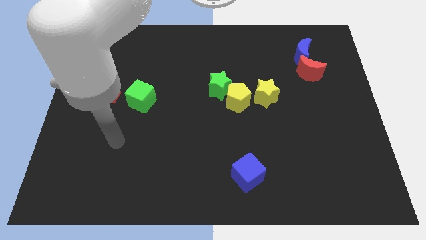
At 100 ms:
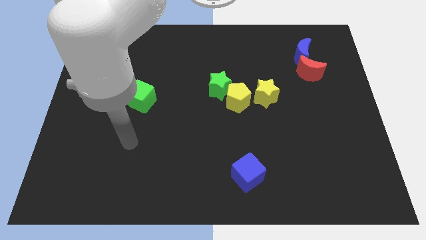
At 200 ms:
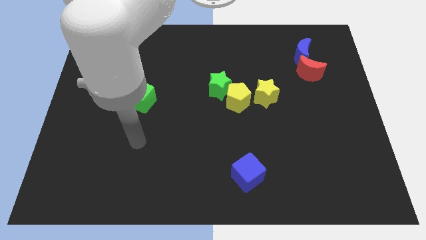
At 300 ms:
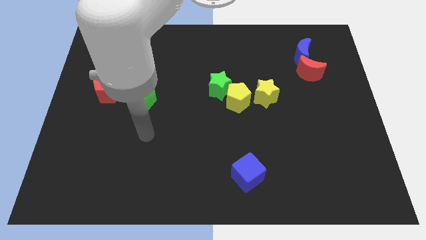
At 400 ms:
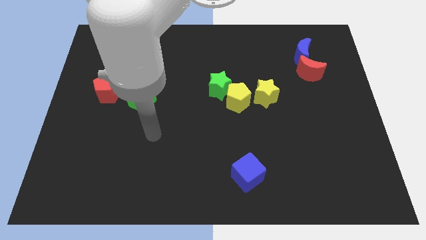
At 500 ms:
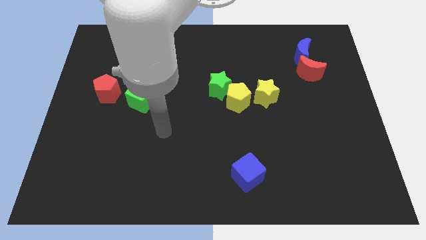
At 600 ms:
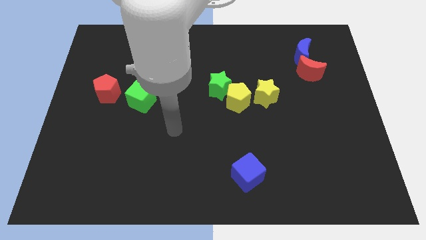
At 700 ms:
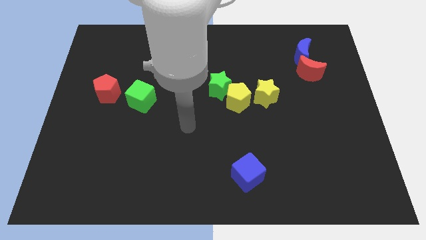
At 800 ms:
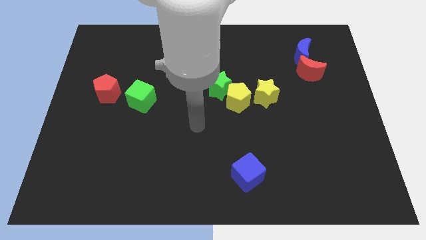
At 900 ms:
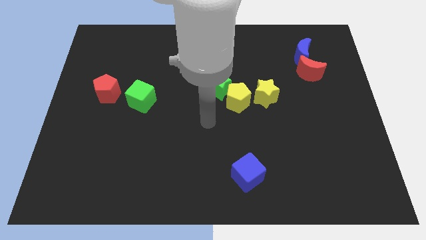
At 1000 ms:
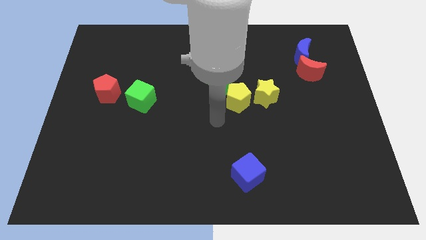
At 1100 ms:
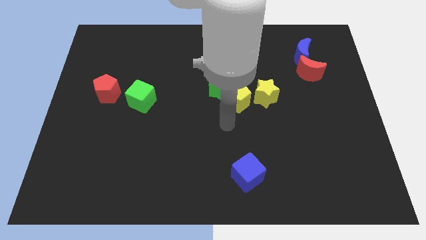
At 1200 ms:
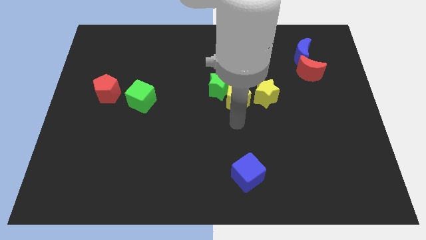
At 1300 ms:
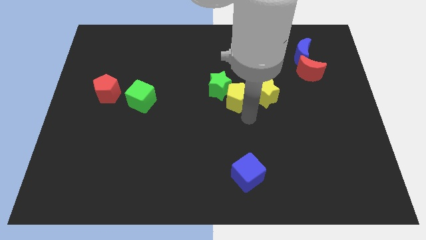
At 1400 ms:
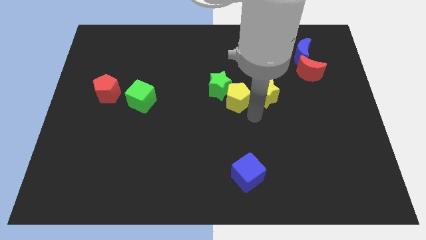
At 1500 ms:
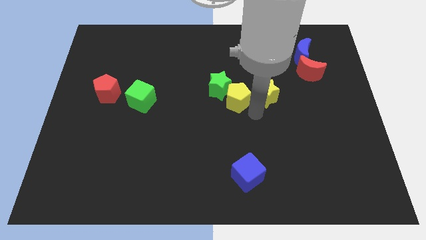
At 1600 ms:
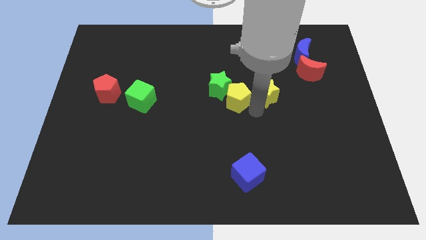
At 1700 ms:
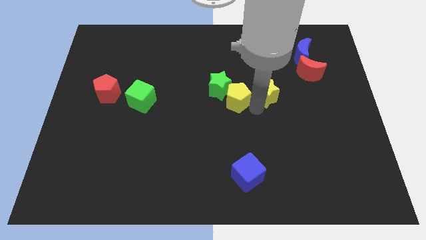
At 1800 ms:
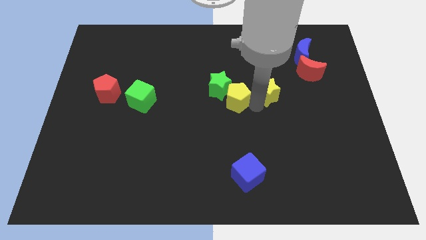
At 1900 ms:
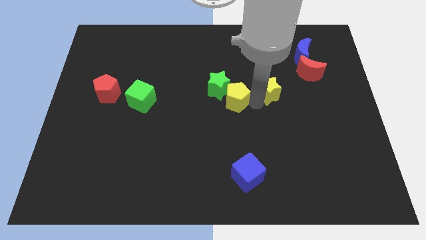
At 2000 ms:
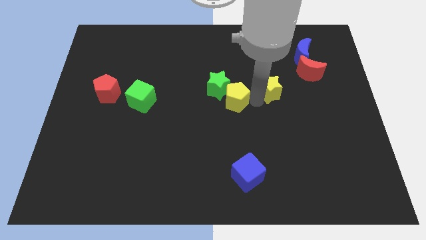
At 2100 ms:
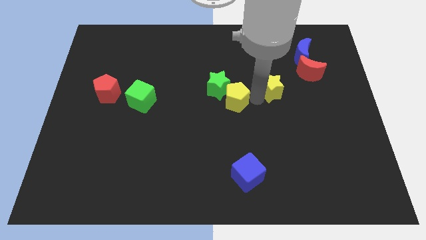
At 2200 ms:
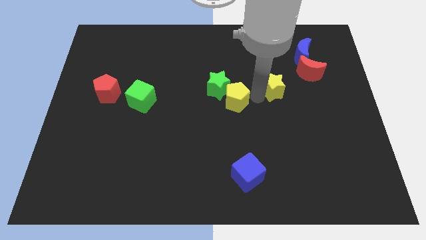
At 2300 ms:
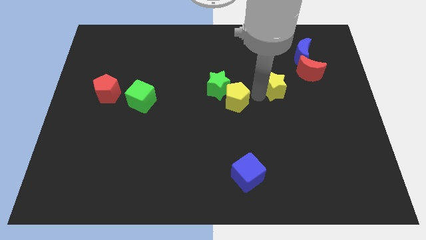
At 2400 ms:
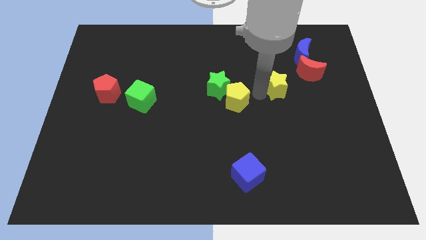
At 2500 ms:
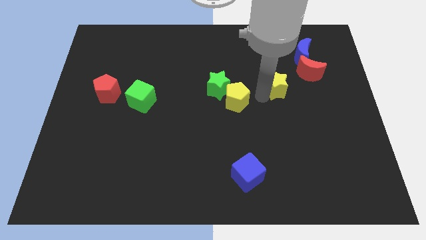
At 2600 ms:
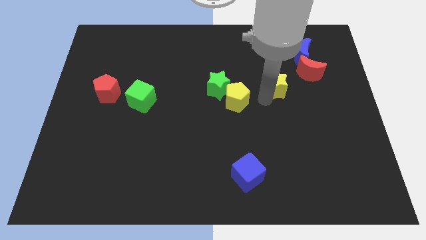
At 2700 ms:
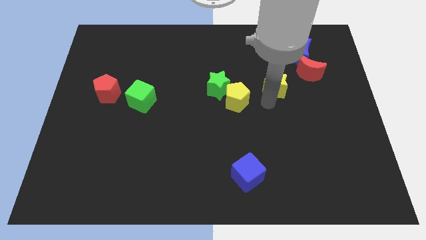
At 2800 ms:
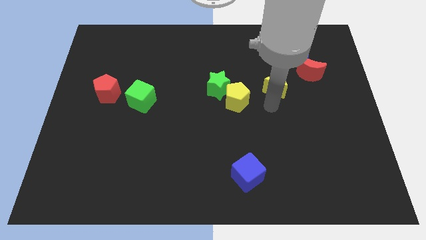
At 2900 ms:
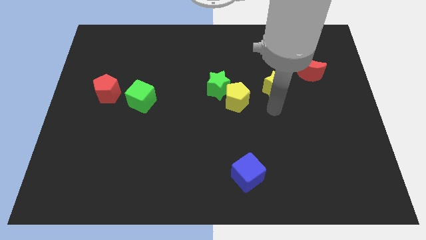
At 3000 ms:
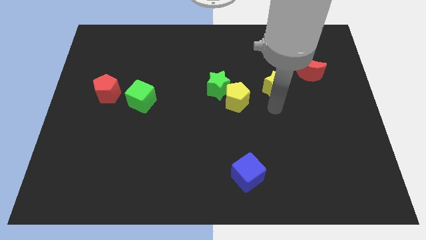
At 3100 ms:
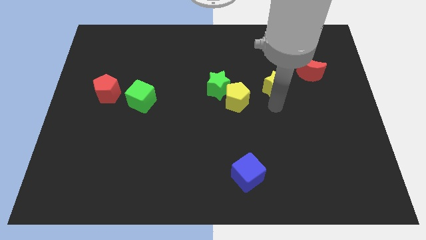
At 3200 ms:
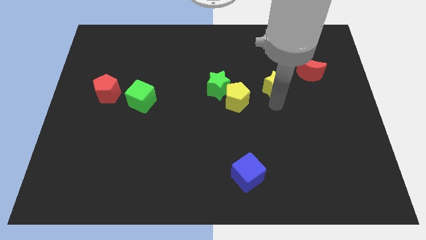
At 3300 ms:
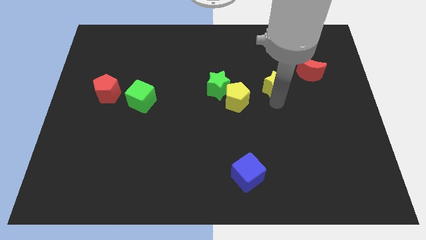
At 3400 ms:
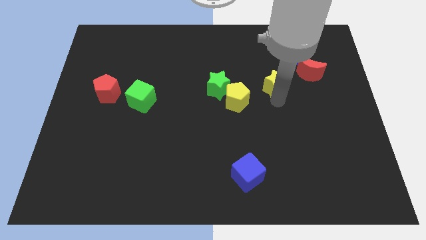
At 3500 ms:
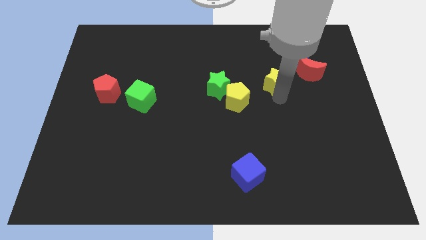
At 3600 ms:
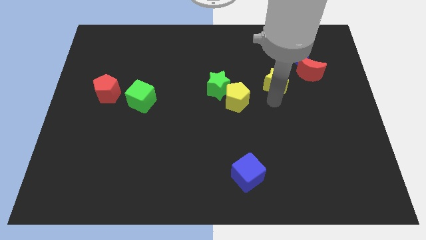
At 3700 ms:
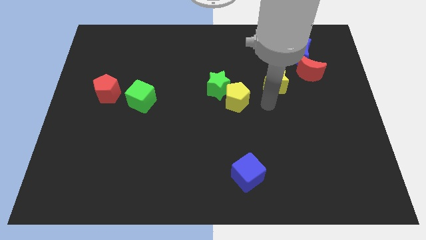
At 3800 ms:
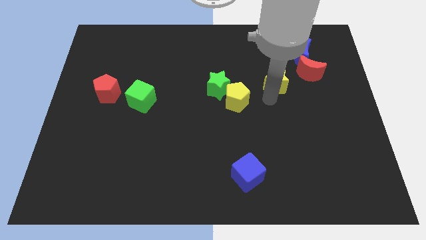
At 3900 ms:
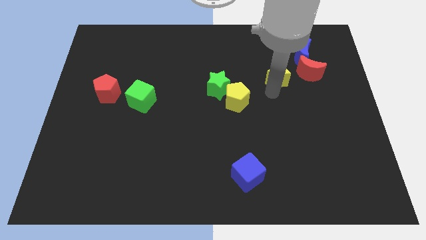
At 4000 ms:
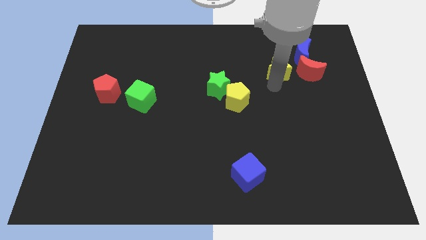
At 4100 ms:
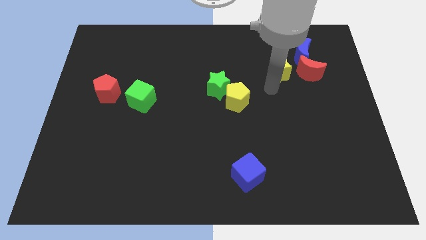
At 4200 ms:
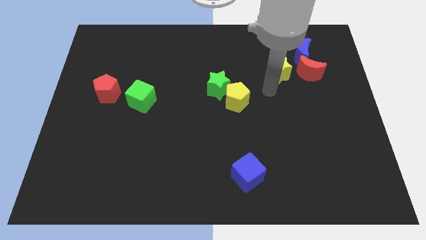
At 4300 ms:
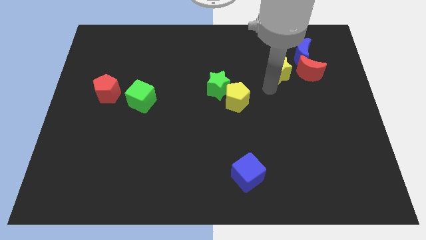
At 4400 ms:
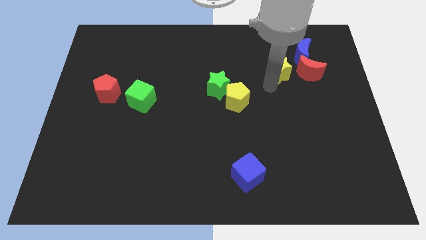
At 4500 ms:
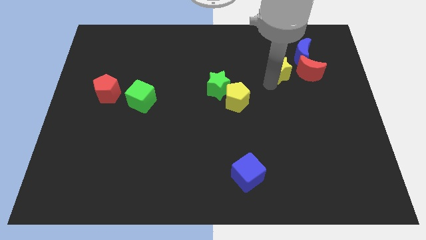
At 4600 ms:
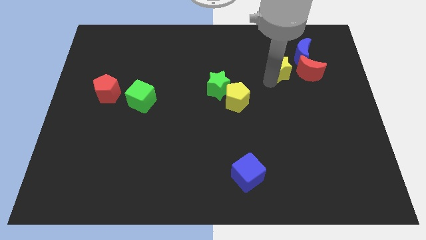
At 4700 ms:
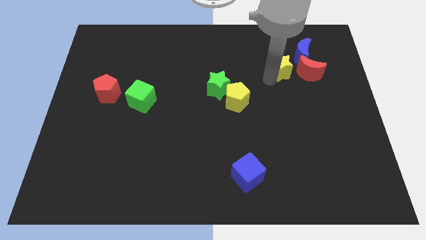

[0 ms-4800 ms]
slide the yellow star to the top left side of the red moon

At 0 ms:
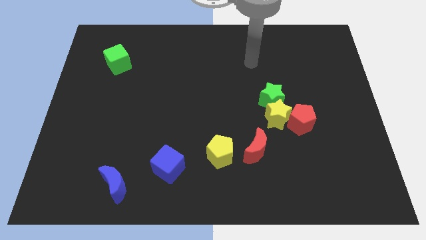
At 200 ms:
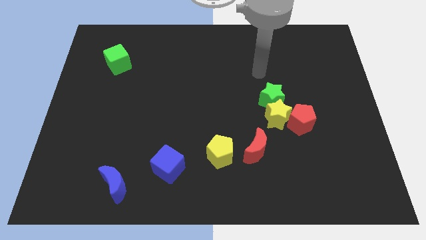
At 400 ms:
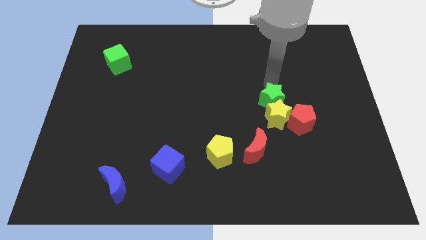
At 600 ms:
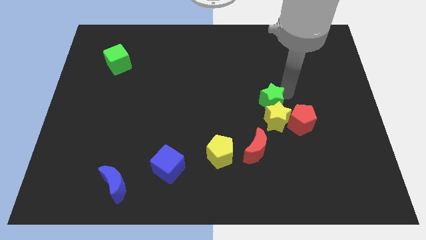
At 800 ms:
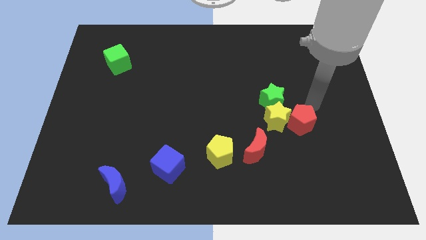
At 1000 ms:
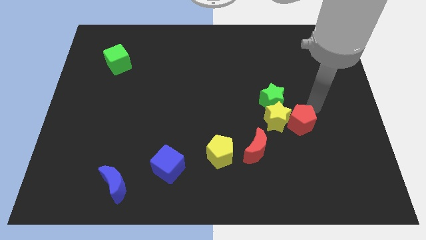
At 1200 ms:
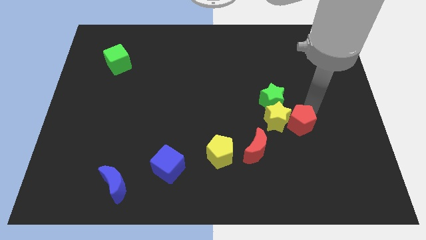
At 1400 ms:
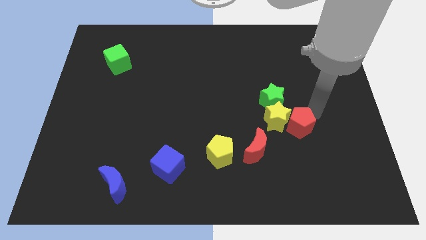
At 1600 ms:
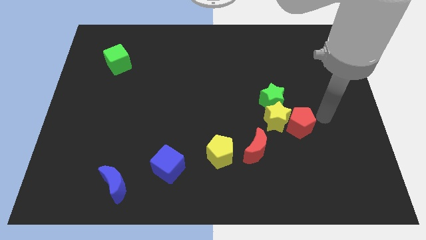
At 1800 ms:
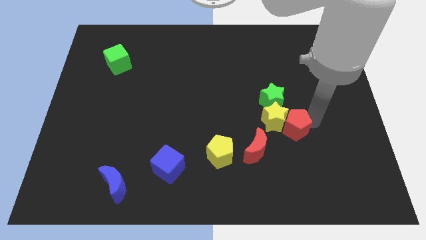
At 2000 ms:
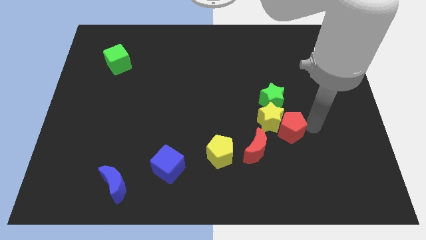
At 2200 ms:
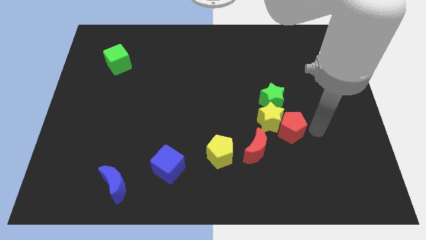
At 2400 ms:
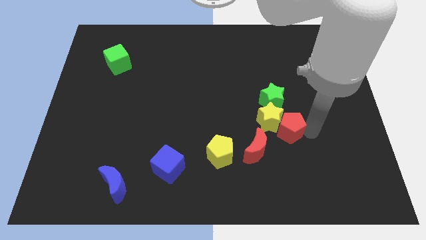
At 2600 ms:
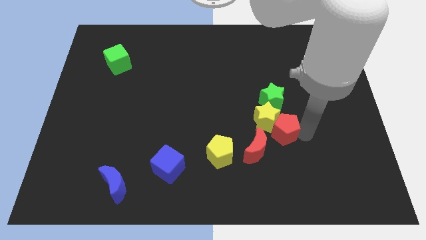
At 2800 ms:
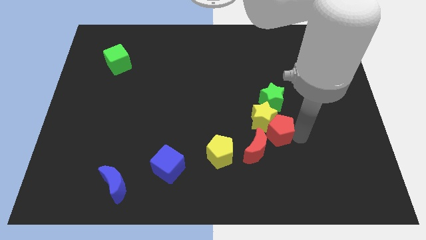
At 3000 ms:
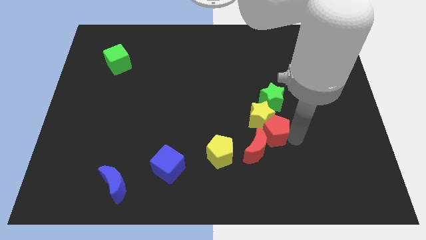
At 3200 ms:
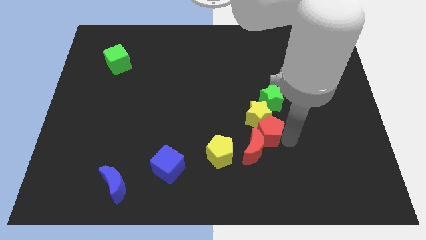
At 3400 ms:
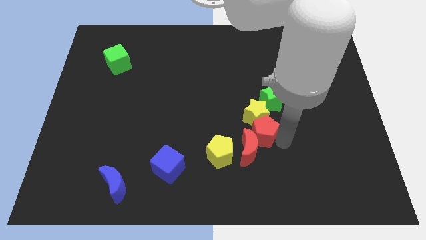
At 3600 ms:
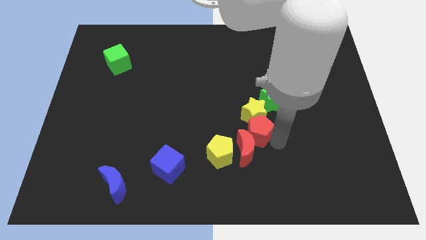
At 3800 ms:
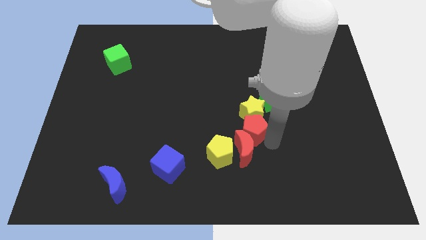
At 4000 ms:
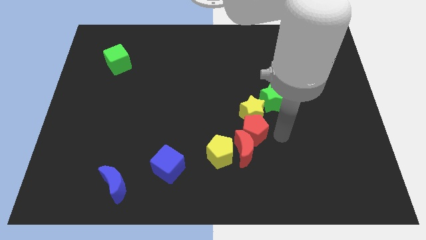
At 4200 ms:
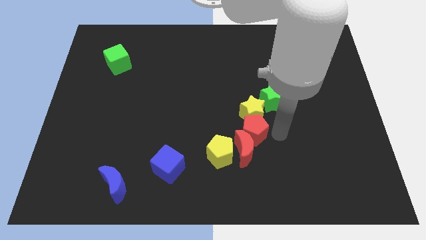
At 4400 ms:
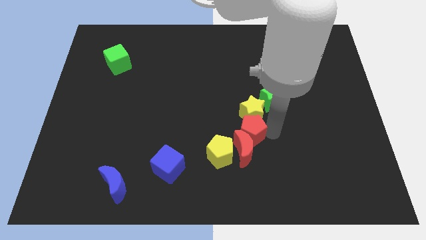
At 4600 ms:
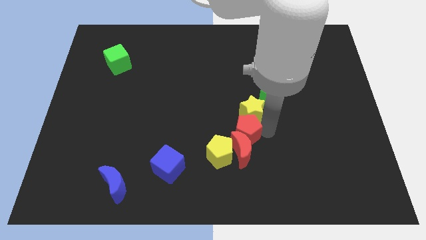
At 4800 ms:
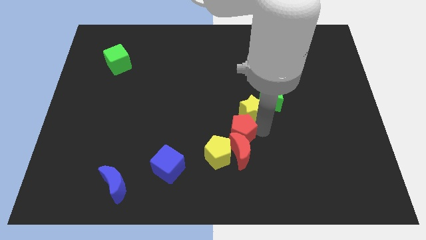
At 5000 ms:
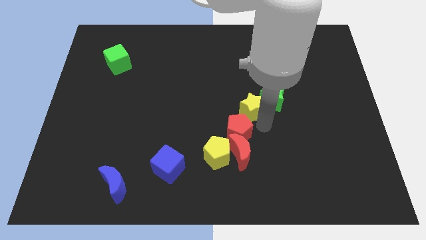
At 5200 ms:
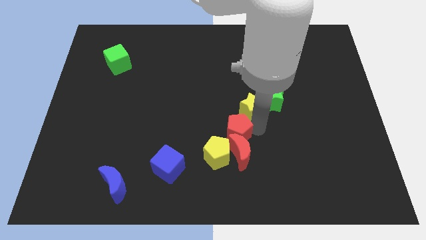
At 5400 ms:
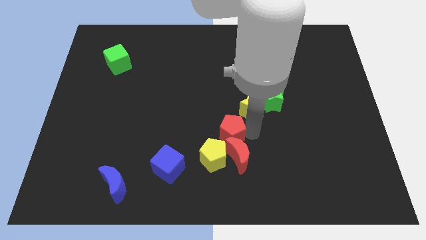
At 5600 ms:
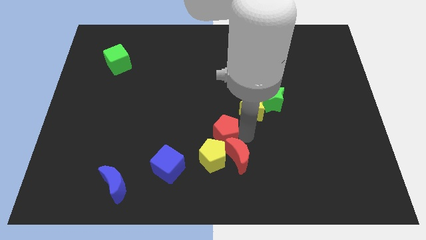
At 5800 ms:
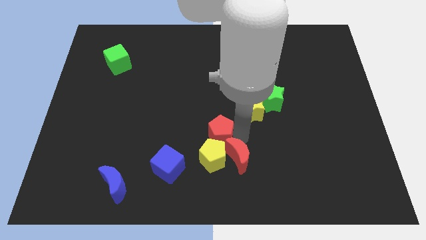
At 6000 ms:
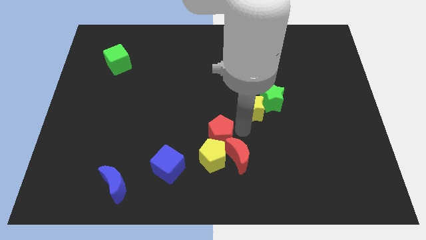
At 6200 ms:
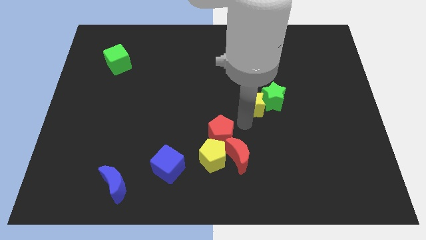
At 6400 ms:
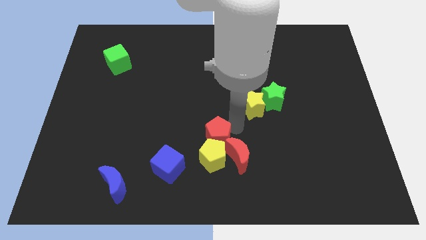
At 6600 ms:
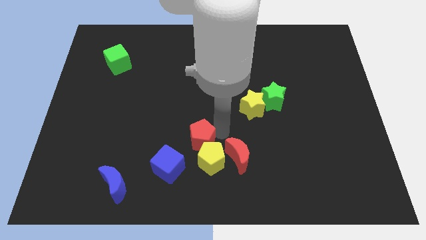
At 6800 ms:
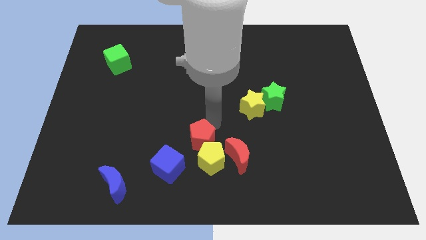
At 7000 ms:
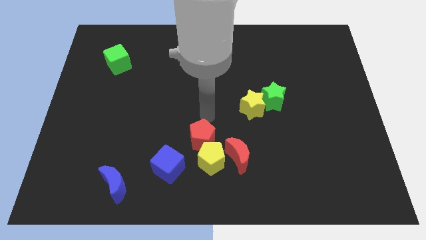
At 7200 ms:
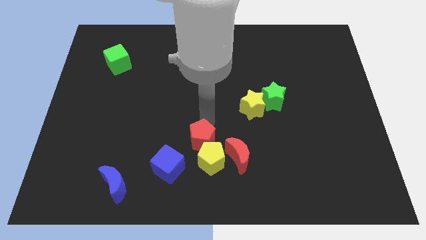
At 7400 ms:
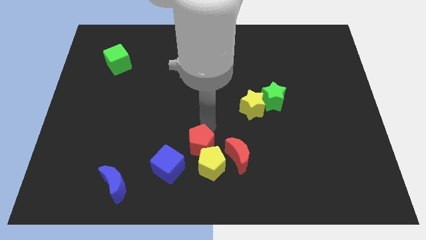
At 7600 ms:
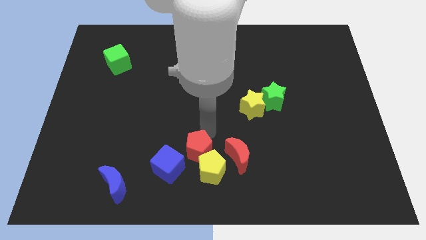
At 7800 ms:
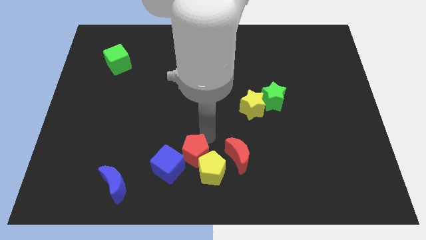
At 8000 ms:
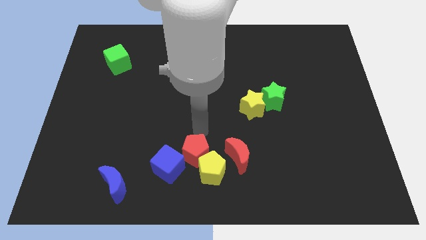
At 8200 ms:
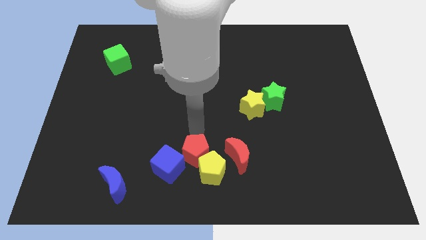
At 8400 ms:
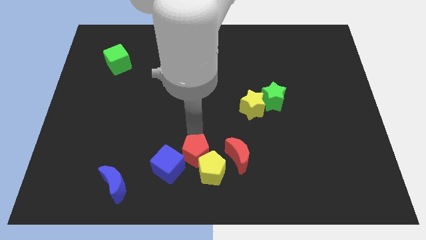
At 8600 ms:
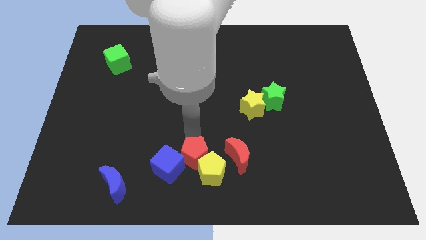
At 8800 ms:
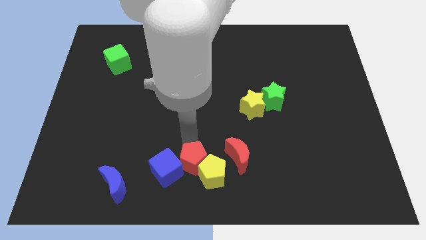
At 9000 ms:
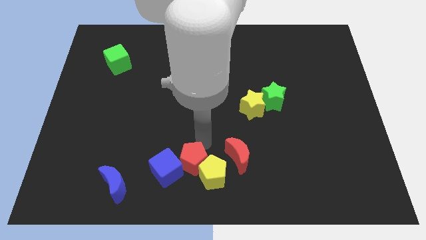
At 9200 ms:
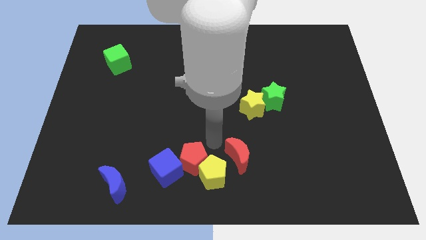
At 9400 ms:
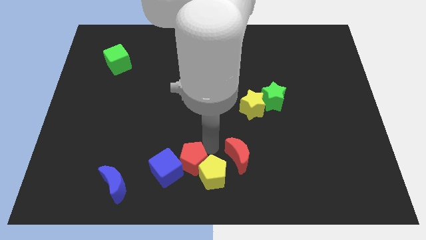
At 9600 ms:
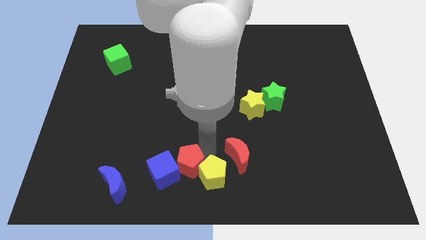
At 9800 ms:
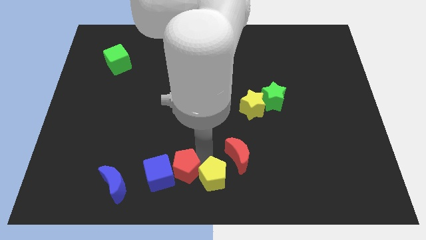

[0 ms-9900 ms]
slide the red pentagon just right of the blue moon
